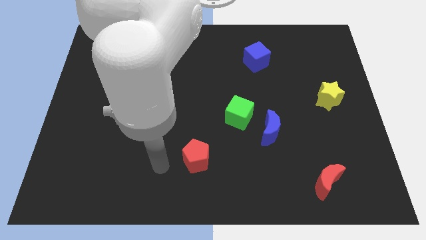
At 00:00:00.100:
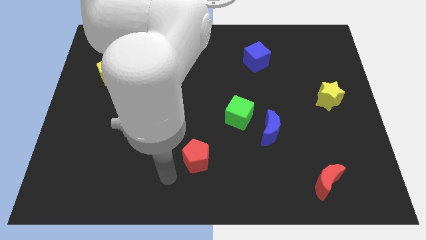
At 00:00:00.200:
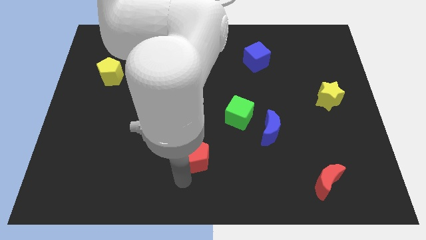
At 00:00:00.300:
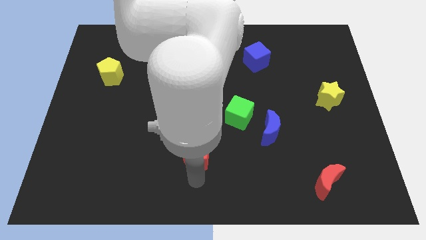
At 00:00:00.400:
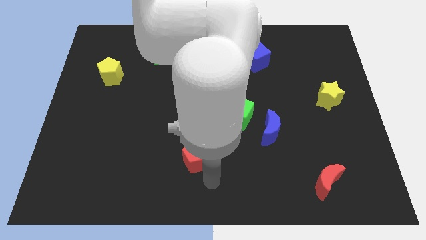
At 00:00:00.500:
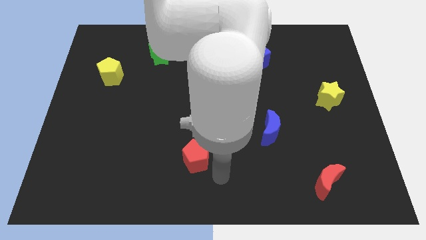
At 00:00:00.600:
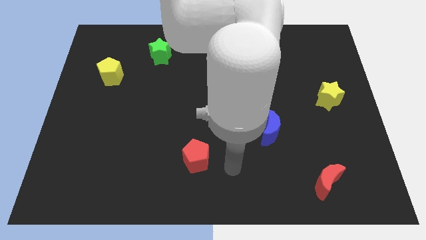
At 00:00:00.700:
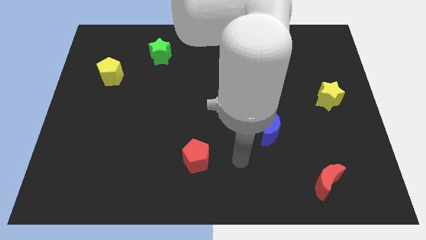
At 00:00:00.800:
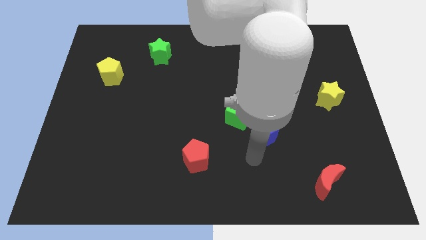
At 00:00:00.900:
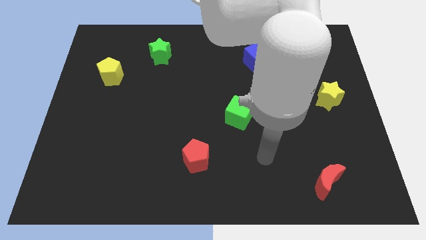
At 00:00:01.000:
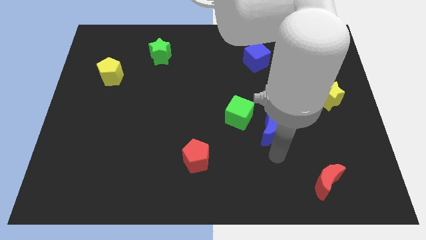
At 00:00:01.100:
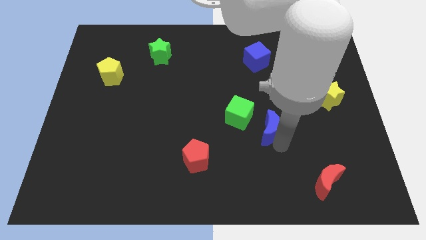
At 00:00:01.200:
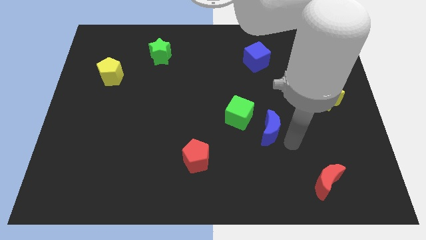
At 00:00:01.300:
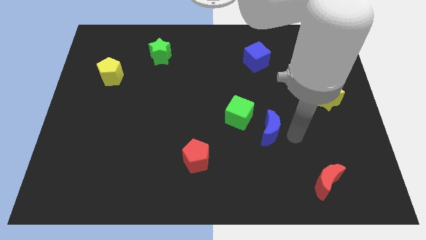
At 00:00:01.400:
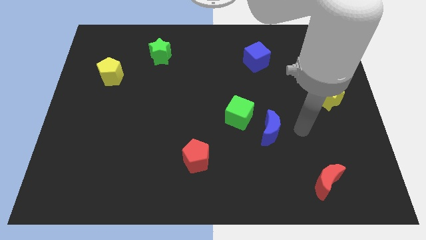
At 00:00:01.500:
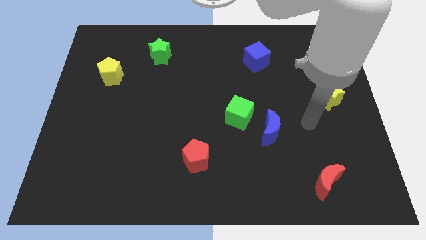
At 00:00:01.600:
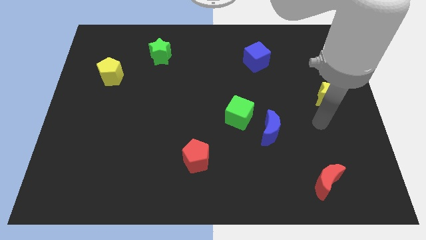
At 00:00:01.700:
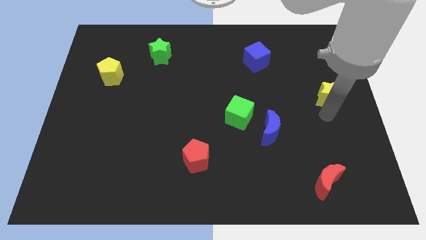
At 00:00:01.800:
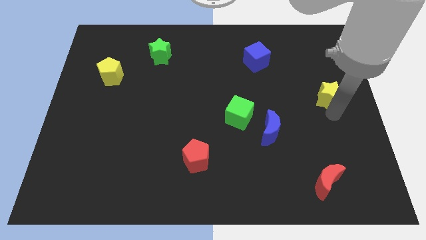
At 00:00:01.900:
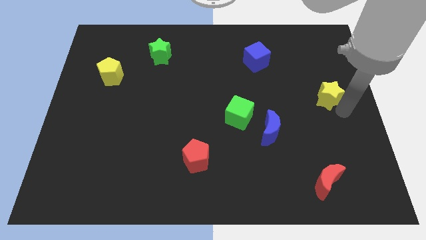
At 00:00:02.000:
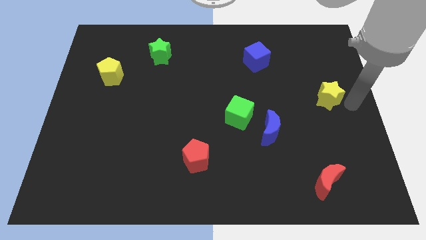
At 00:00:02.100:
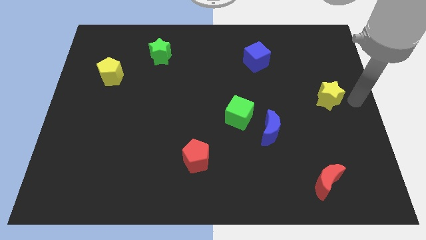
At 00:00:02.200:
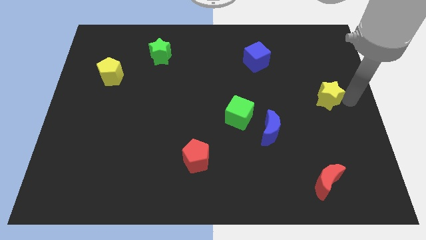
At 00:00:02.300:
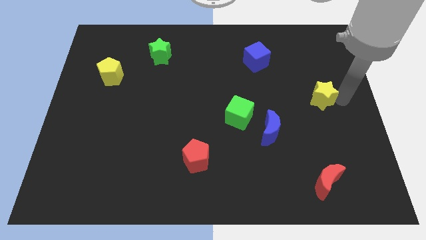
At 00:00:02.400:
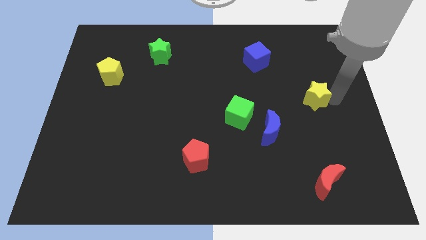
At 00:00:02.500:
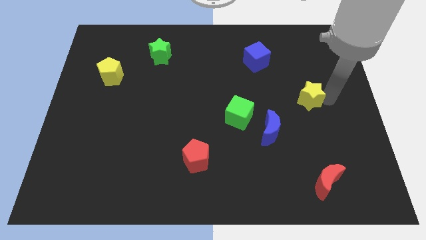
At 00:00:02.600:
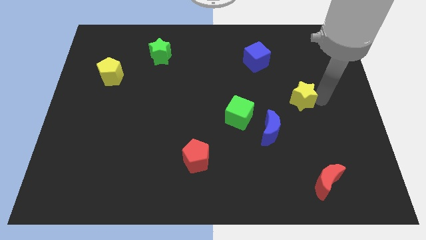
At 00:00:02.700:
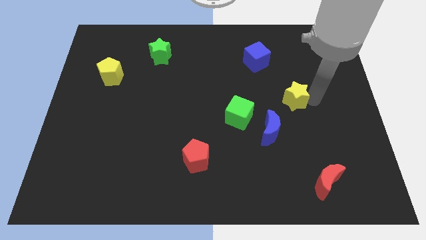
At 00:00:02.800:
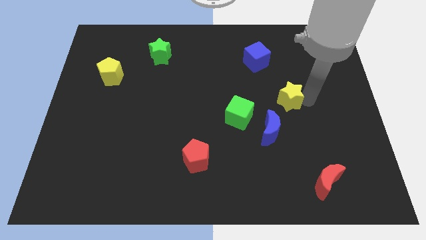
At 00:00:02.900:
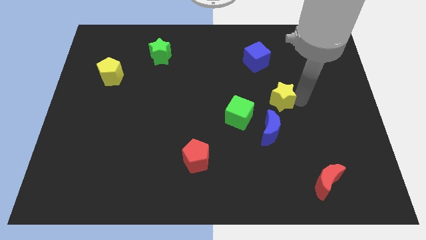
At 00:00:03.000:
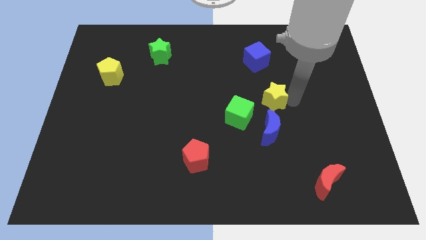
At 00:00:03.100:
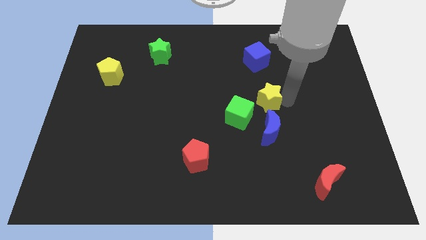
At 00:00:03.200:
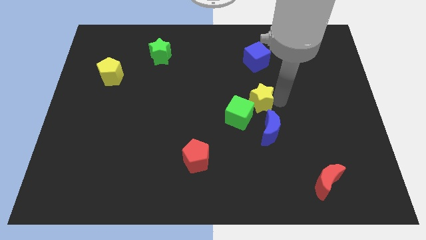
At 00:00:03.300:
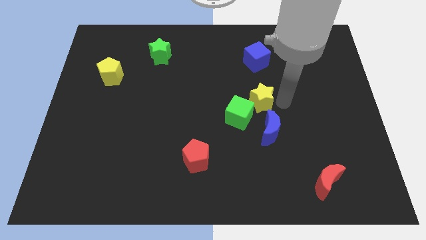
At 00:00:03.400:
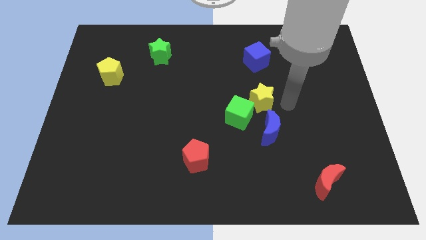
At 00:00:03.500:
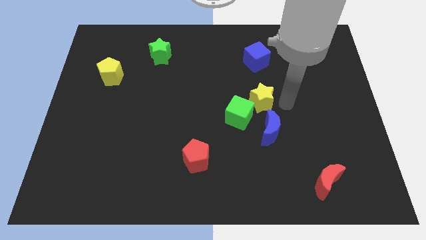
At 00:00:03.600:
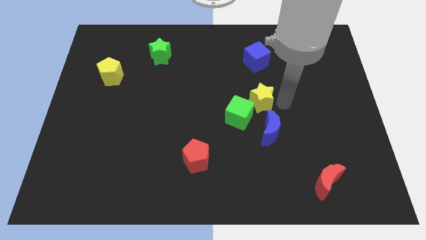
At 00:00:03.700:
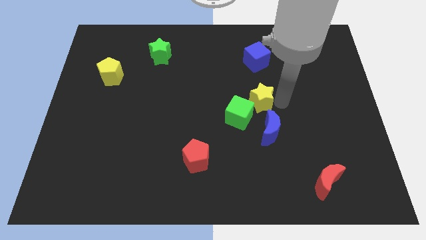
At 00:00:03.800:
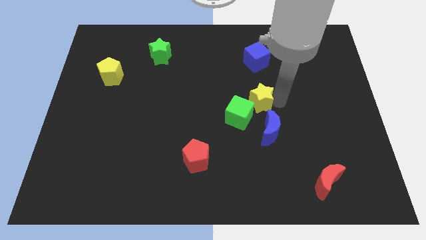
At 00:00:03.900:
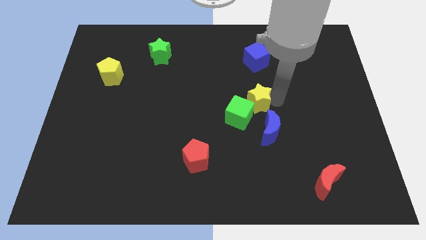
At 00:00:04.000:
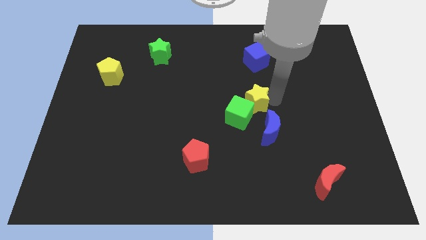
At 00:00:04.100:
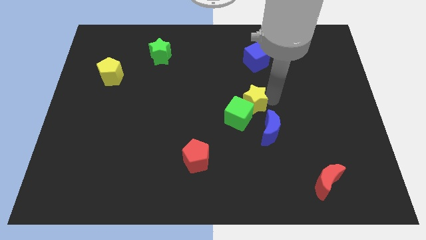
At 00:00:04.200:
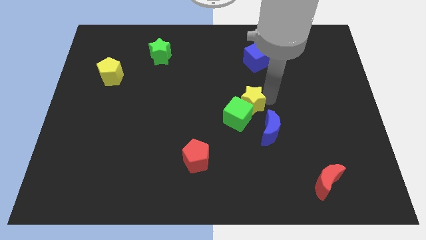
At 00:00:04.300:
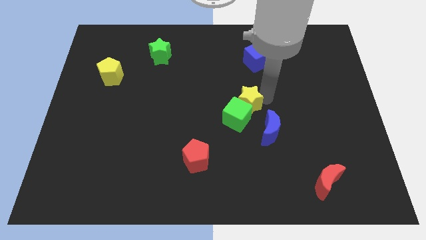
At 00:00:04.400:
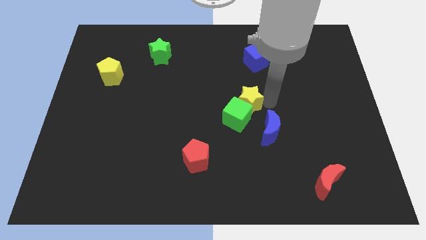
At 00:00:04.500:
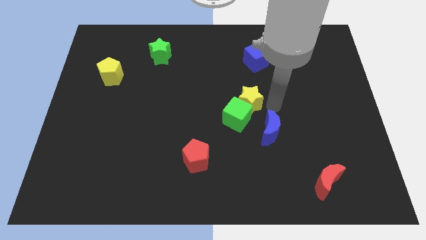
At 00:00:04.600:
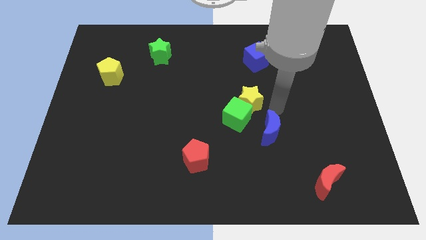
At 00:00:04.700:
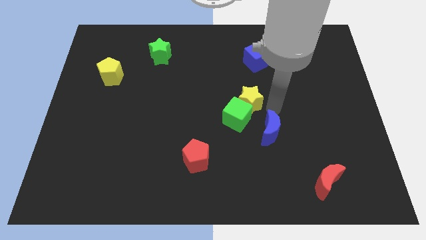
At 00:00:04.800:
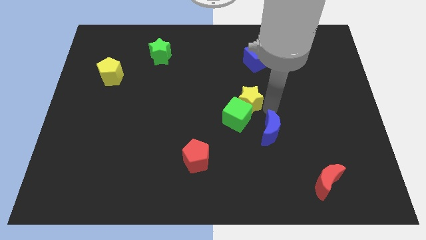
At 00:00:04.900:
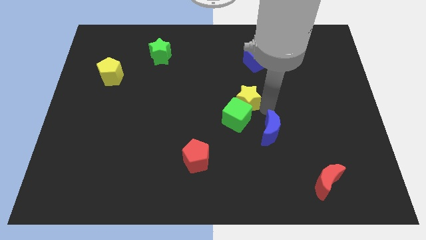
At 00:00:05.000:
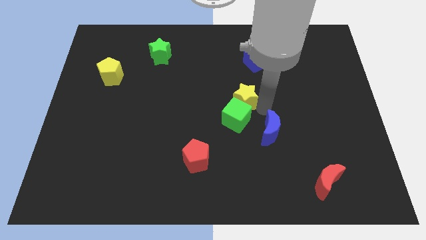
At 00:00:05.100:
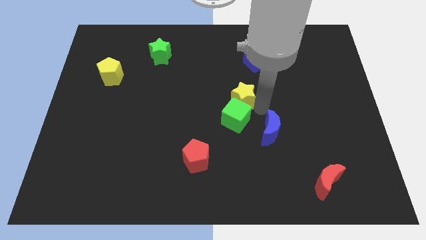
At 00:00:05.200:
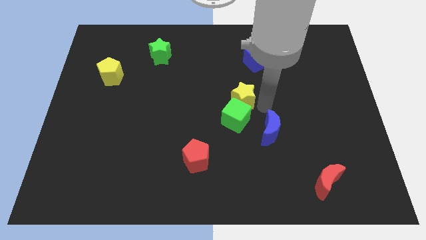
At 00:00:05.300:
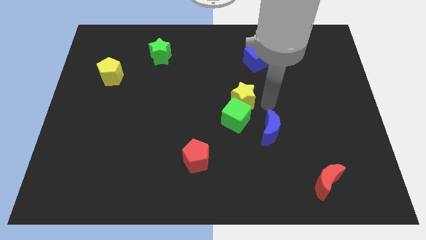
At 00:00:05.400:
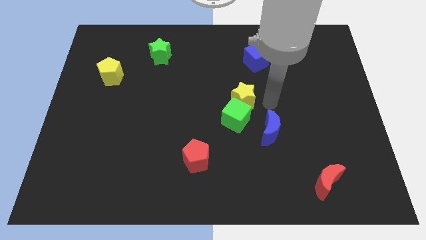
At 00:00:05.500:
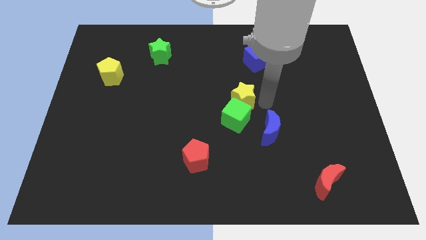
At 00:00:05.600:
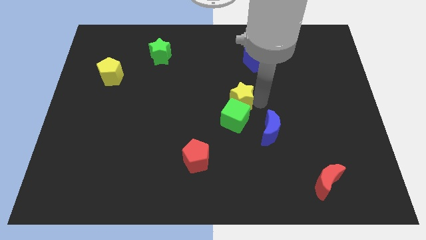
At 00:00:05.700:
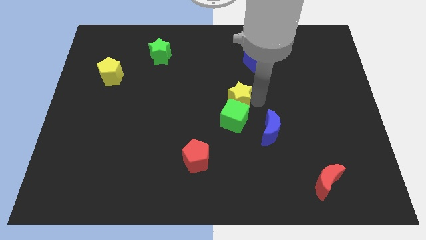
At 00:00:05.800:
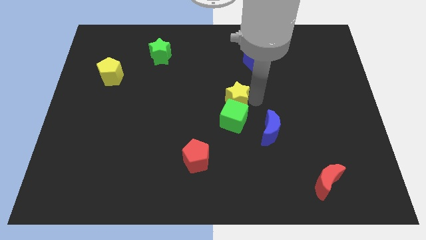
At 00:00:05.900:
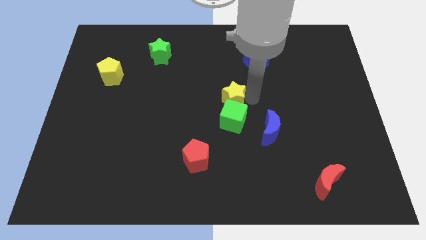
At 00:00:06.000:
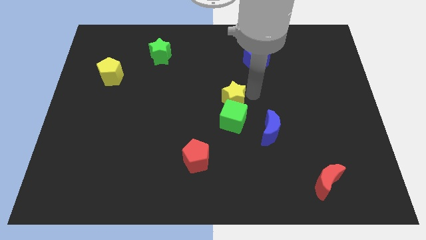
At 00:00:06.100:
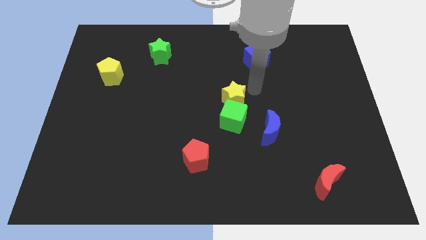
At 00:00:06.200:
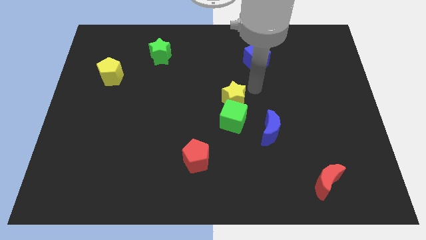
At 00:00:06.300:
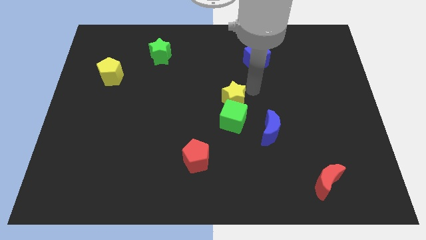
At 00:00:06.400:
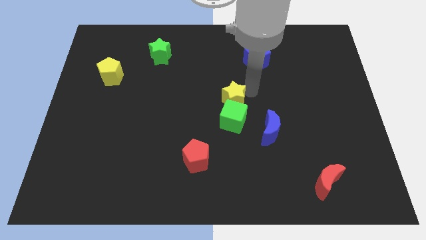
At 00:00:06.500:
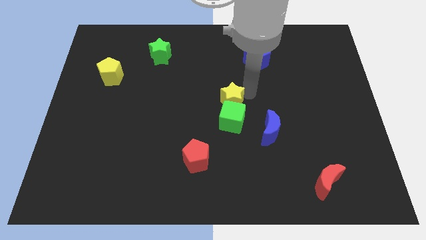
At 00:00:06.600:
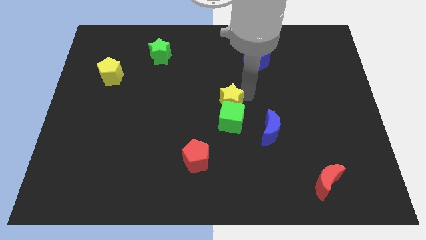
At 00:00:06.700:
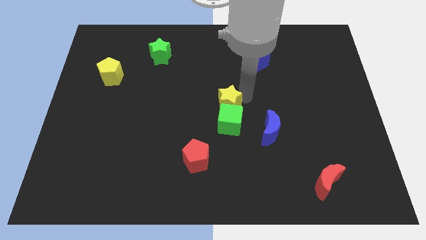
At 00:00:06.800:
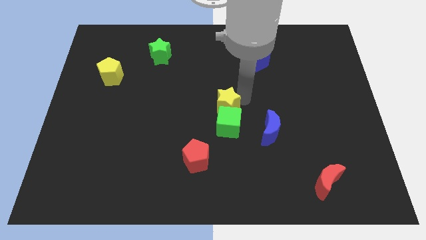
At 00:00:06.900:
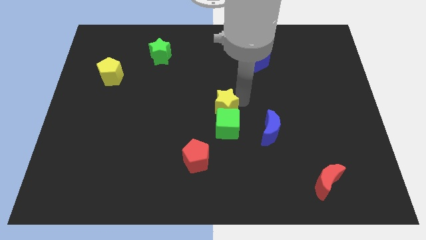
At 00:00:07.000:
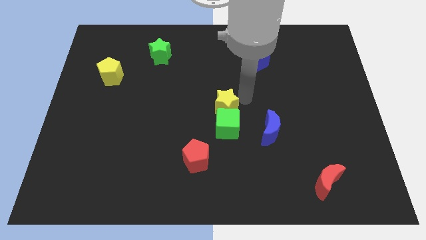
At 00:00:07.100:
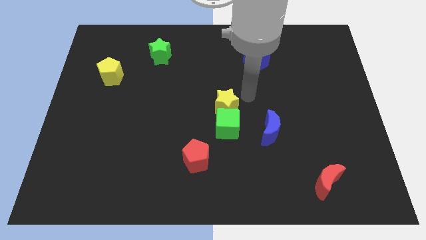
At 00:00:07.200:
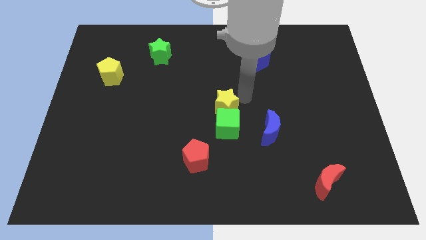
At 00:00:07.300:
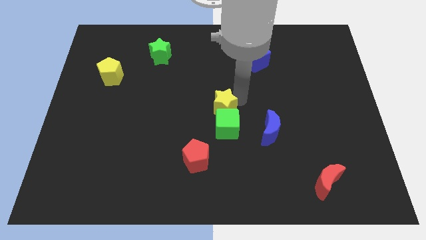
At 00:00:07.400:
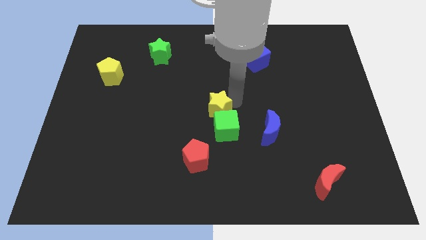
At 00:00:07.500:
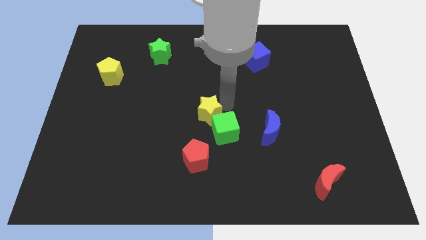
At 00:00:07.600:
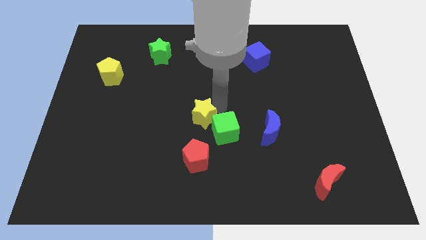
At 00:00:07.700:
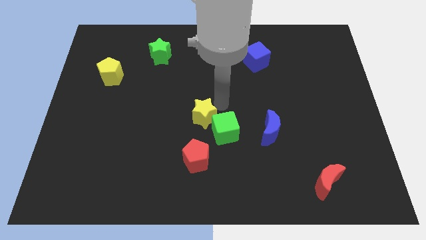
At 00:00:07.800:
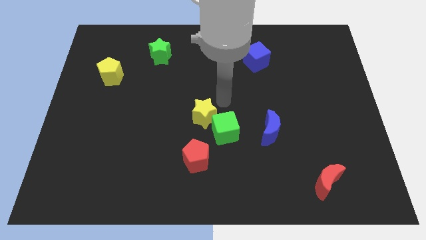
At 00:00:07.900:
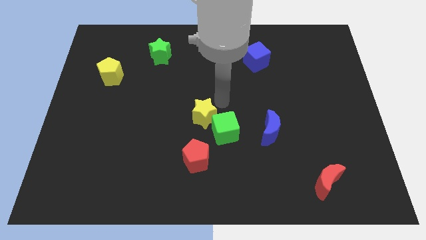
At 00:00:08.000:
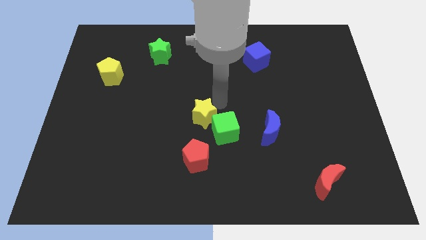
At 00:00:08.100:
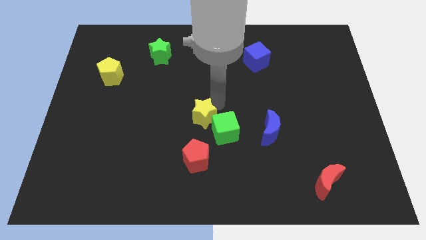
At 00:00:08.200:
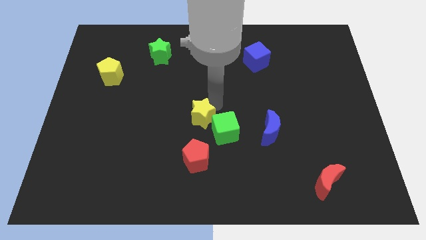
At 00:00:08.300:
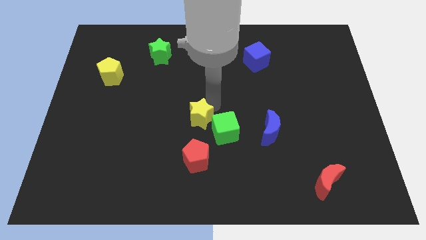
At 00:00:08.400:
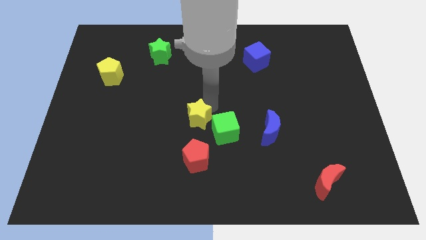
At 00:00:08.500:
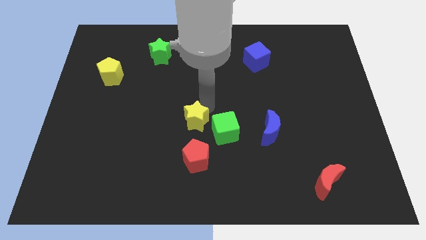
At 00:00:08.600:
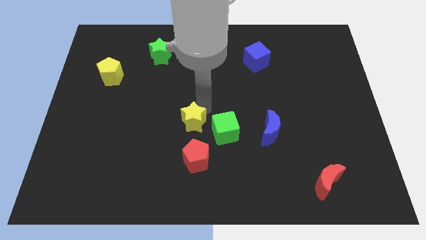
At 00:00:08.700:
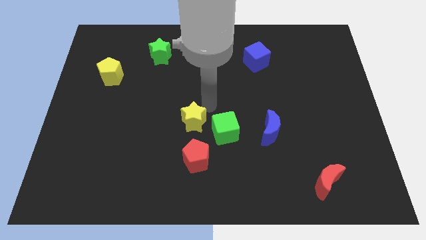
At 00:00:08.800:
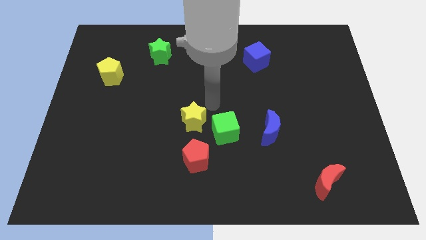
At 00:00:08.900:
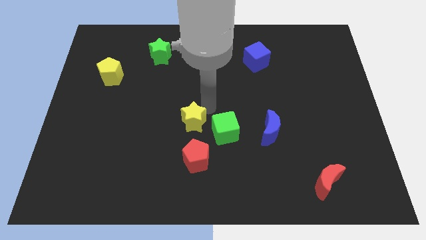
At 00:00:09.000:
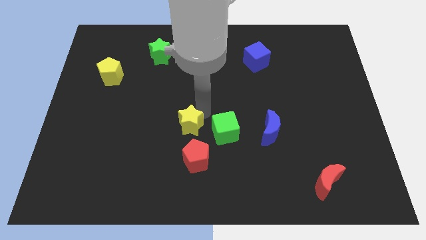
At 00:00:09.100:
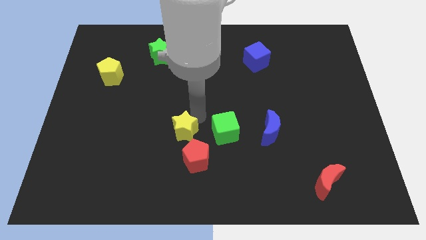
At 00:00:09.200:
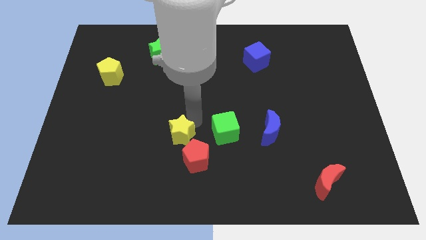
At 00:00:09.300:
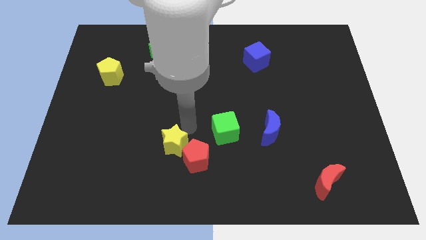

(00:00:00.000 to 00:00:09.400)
move the yellow star left of the red pentagon
